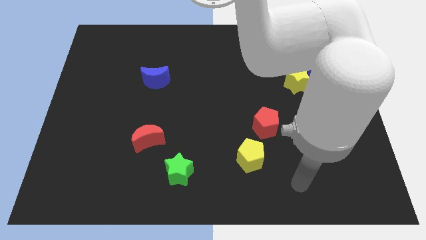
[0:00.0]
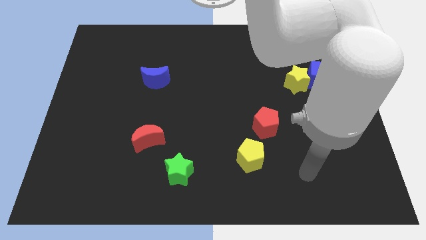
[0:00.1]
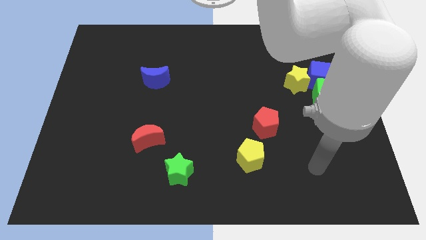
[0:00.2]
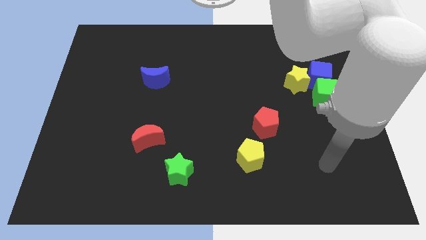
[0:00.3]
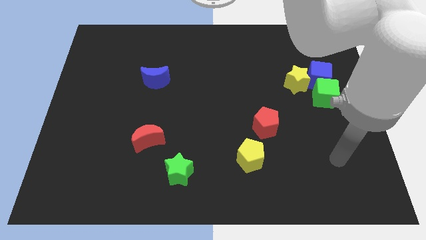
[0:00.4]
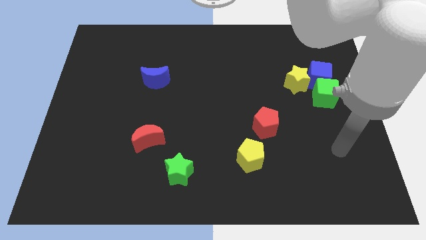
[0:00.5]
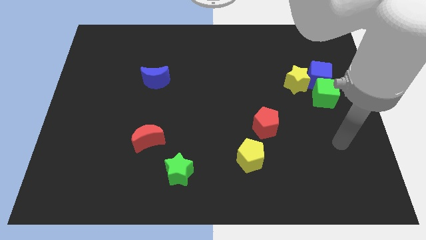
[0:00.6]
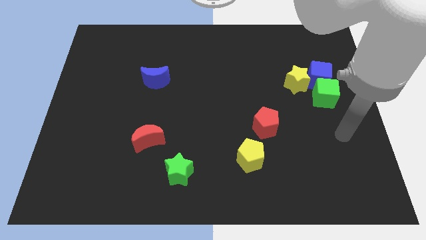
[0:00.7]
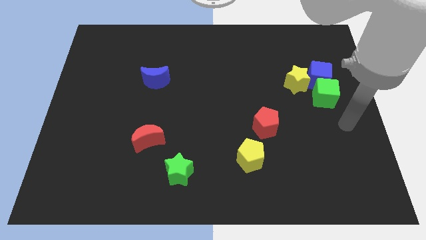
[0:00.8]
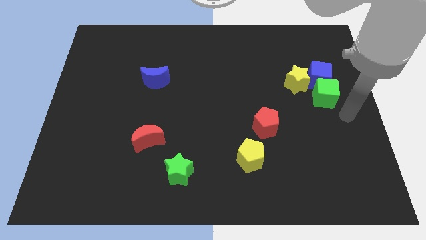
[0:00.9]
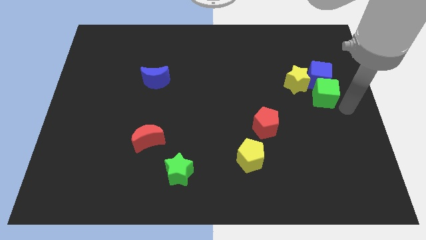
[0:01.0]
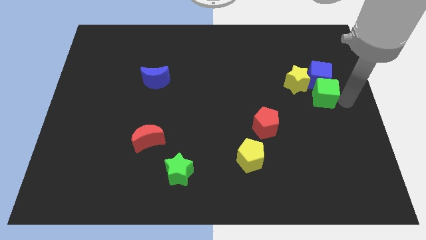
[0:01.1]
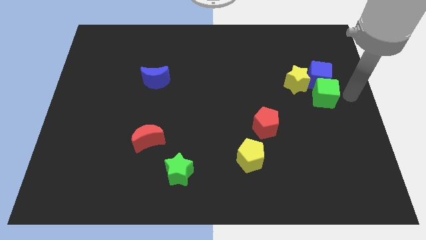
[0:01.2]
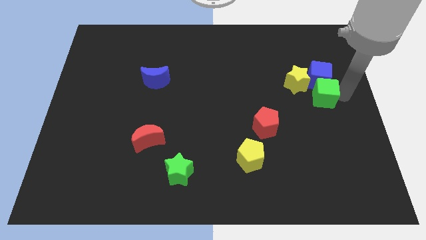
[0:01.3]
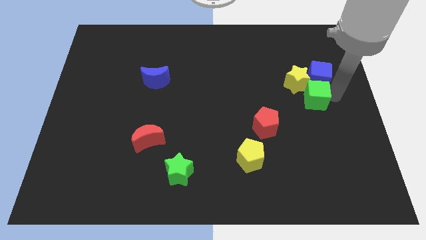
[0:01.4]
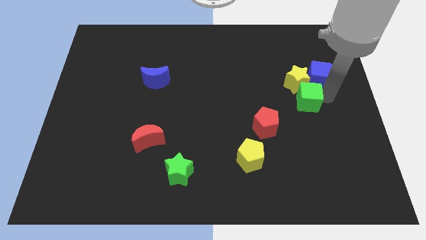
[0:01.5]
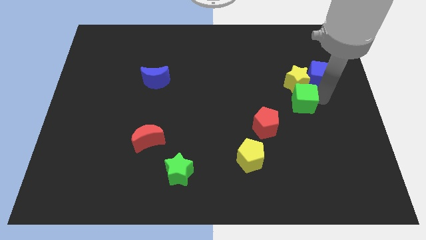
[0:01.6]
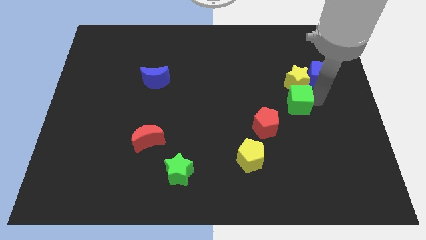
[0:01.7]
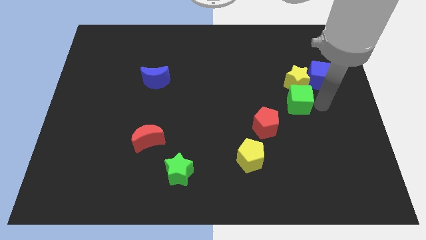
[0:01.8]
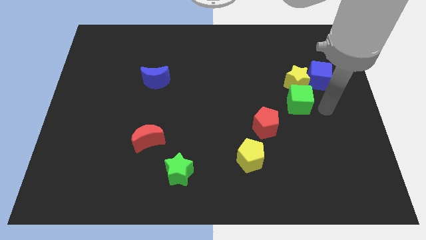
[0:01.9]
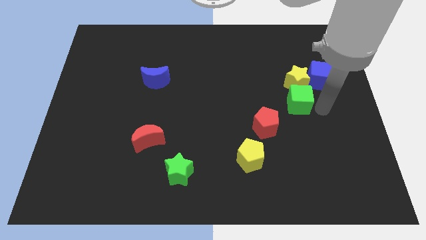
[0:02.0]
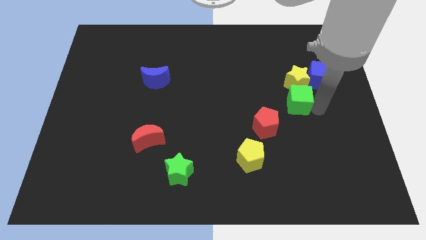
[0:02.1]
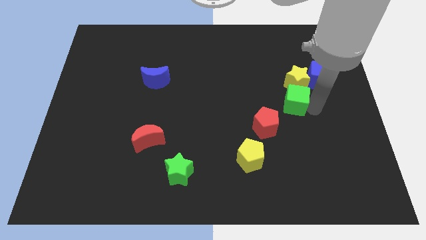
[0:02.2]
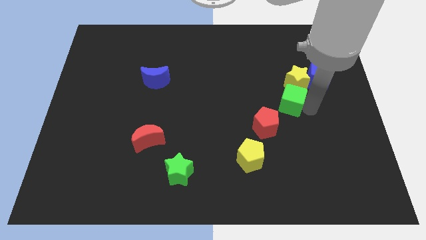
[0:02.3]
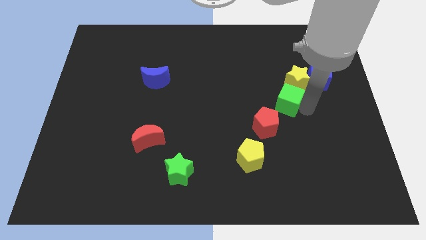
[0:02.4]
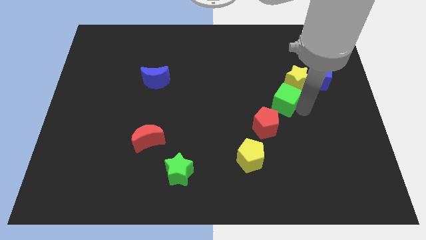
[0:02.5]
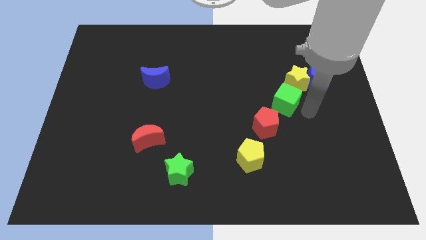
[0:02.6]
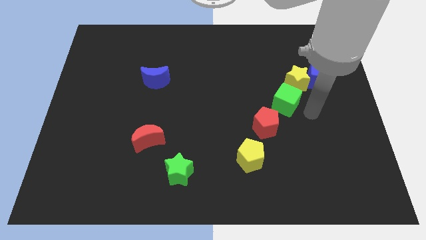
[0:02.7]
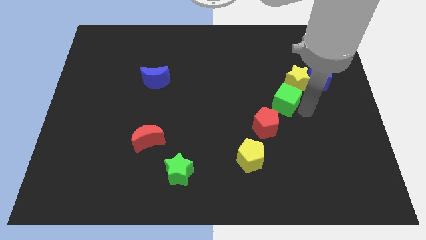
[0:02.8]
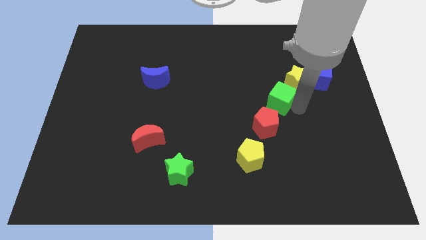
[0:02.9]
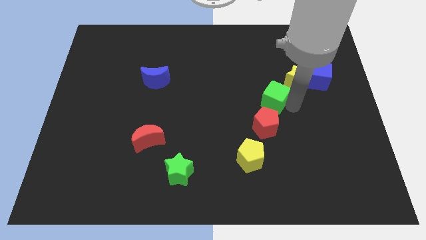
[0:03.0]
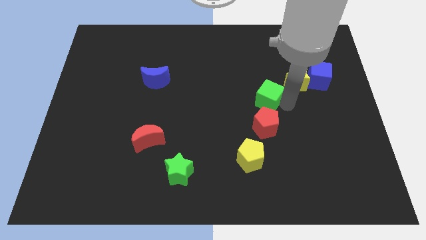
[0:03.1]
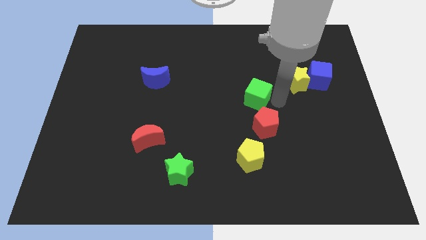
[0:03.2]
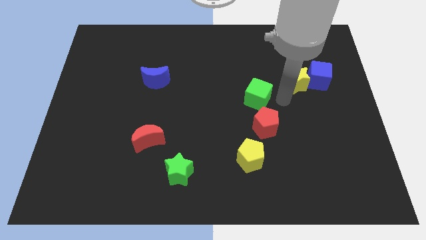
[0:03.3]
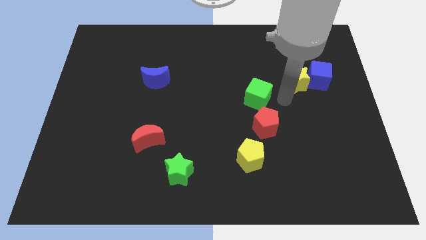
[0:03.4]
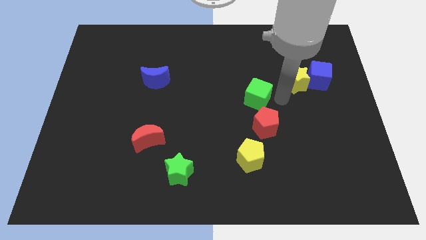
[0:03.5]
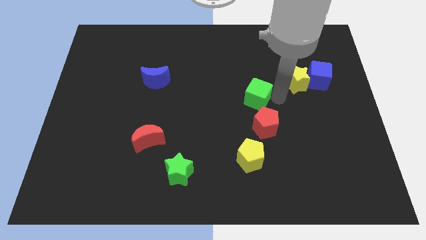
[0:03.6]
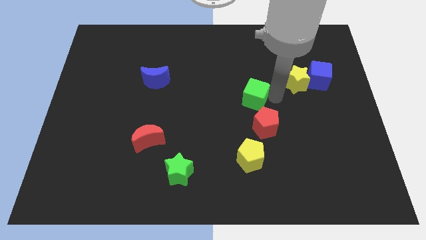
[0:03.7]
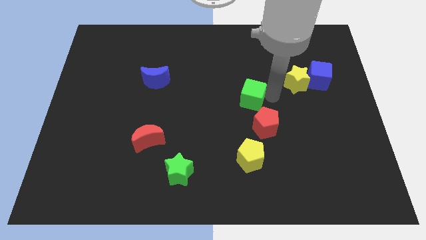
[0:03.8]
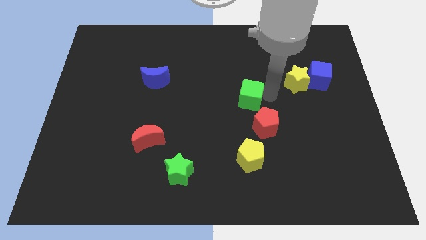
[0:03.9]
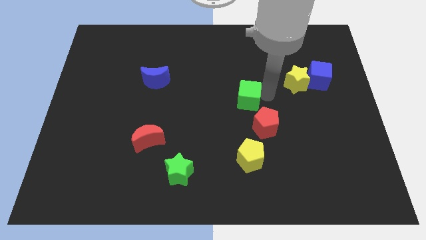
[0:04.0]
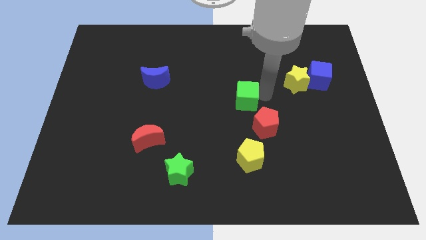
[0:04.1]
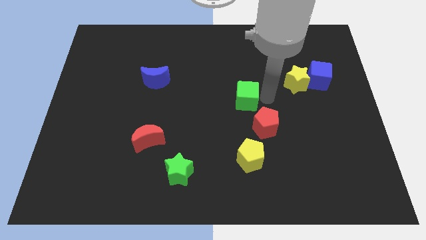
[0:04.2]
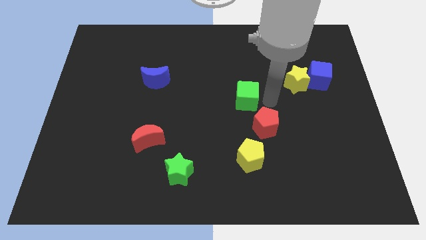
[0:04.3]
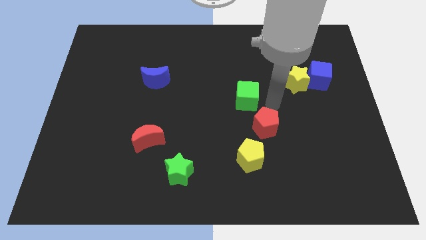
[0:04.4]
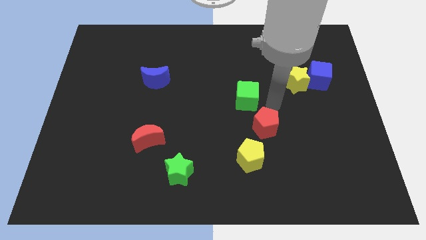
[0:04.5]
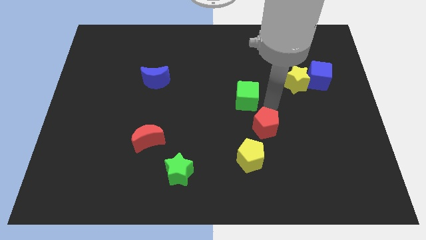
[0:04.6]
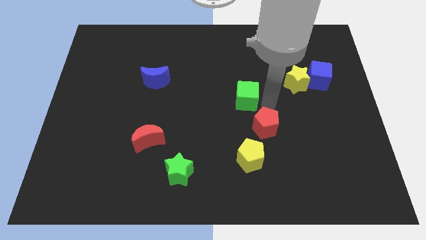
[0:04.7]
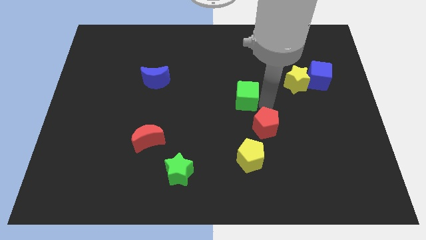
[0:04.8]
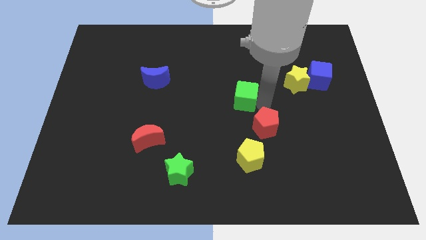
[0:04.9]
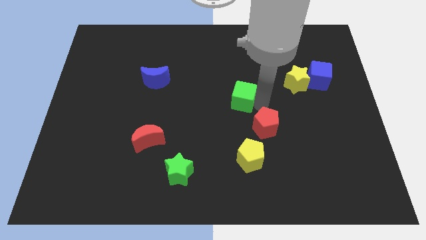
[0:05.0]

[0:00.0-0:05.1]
push the green cube left

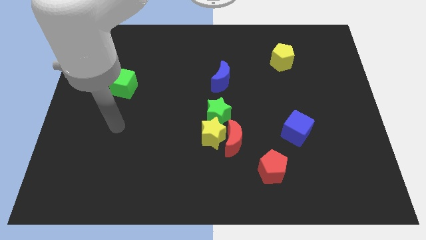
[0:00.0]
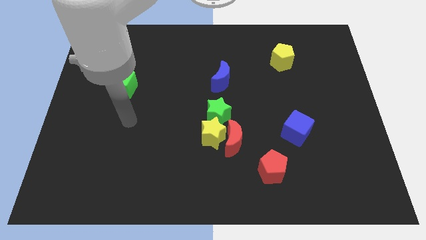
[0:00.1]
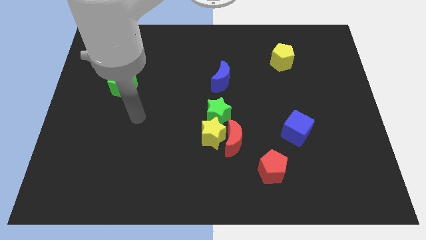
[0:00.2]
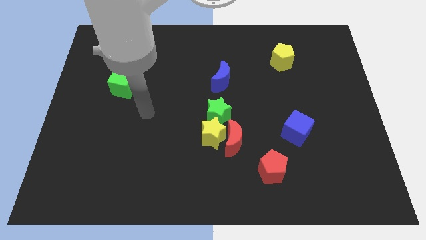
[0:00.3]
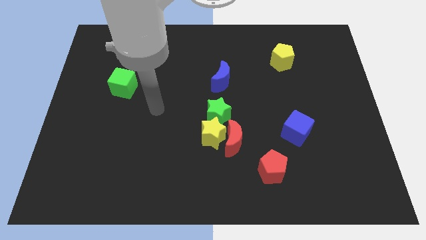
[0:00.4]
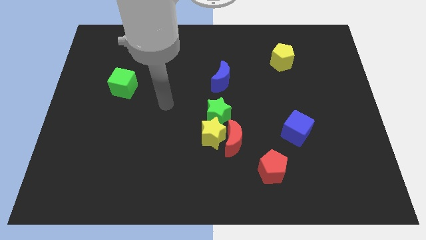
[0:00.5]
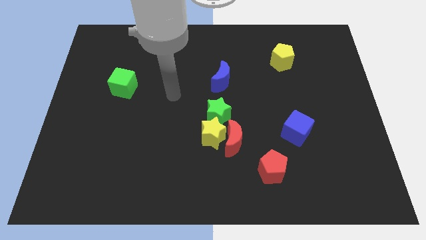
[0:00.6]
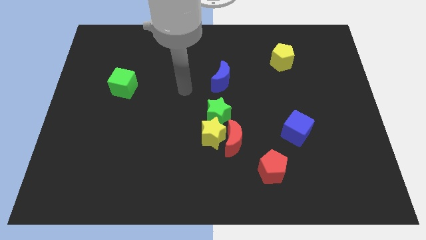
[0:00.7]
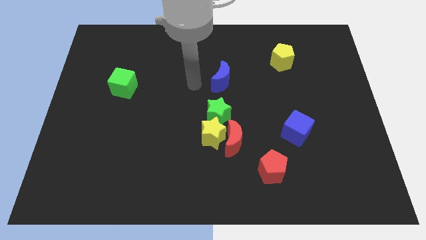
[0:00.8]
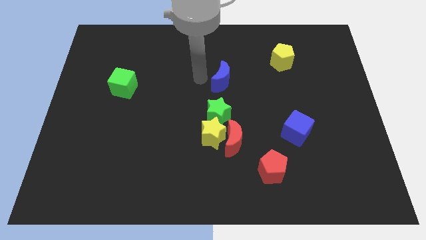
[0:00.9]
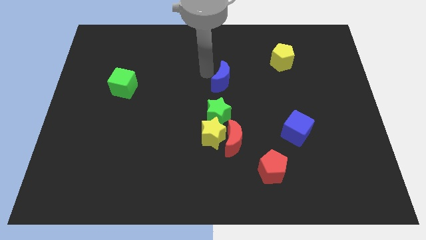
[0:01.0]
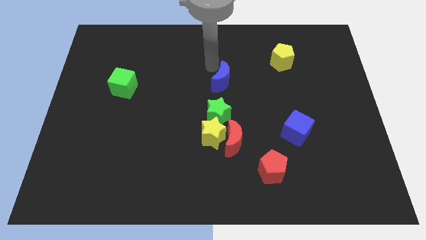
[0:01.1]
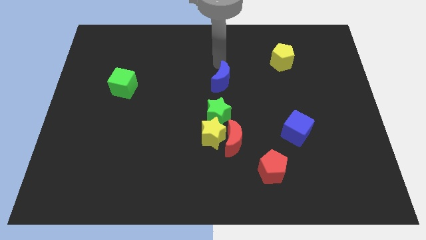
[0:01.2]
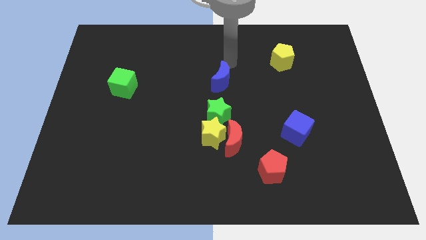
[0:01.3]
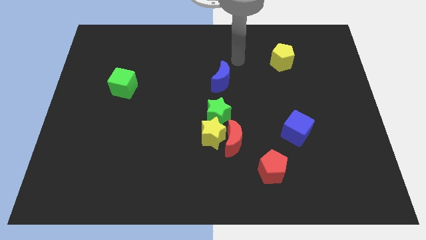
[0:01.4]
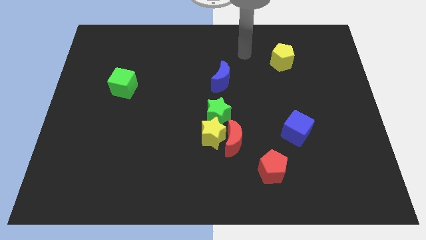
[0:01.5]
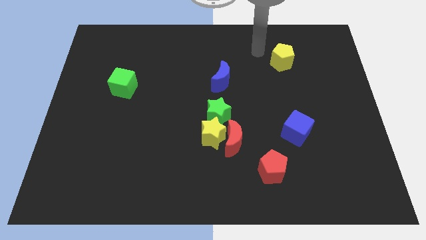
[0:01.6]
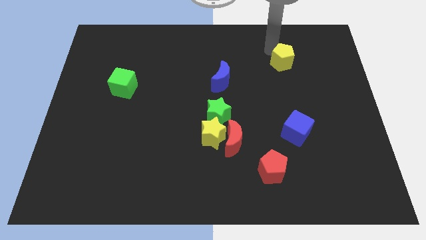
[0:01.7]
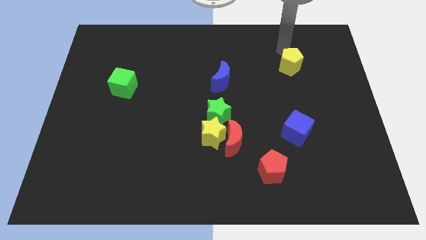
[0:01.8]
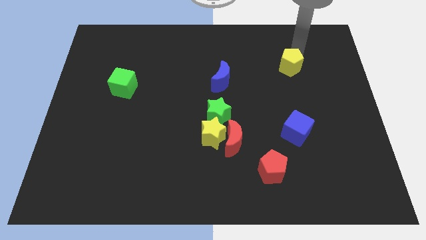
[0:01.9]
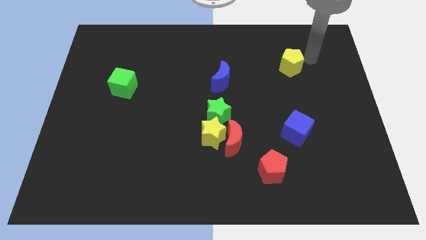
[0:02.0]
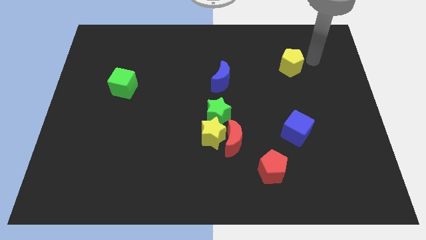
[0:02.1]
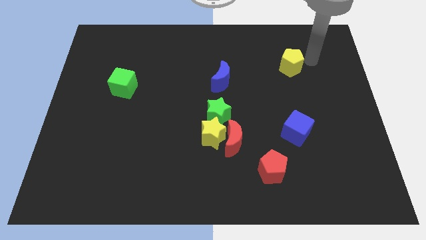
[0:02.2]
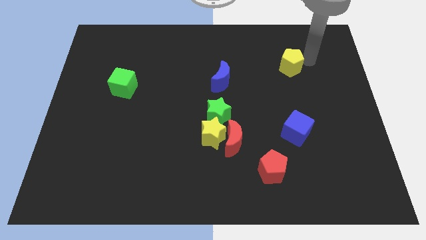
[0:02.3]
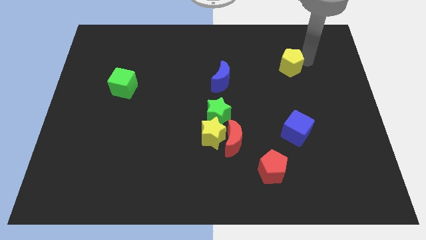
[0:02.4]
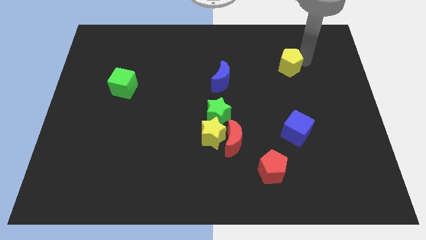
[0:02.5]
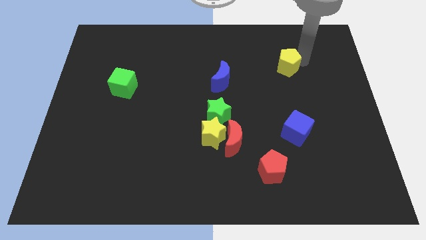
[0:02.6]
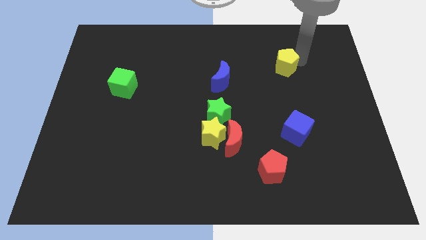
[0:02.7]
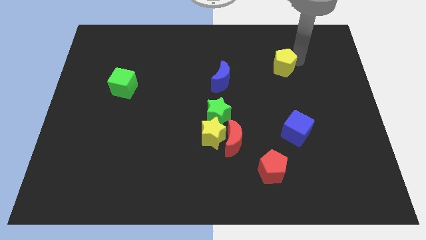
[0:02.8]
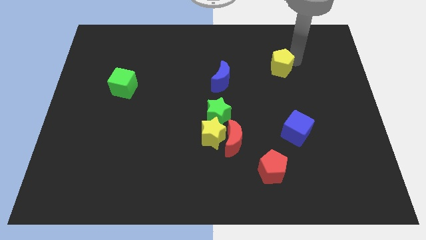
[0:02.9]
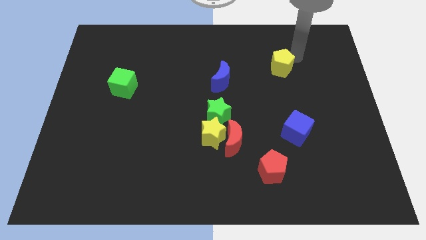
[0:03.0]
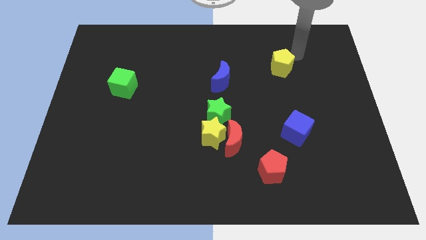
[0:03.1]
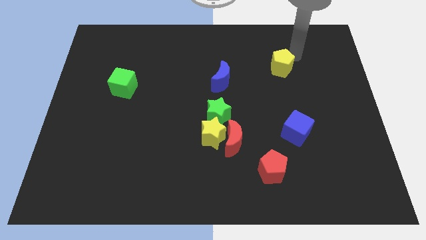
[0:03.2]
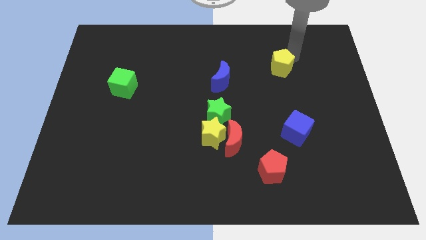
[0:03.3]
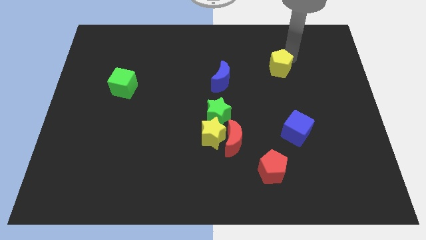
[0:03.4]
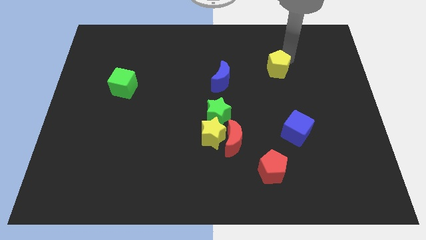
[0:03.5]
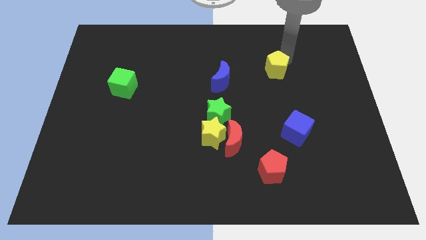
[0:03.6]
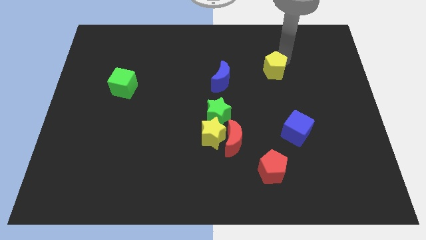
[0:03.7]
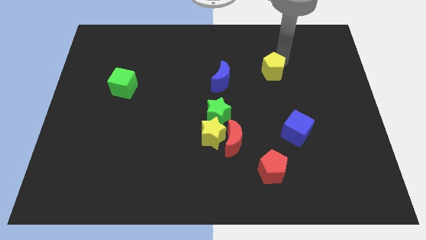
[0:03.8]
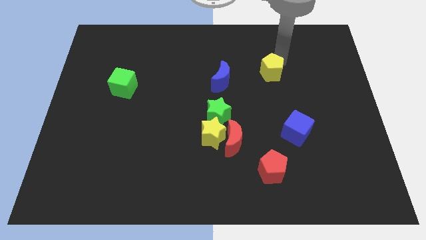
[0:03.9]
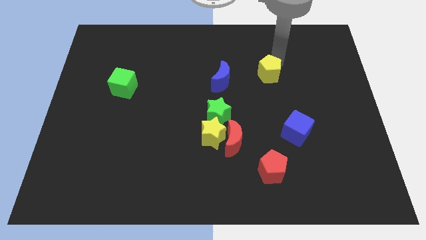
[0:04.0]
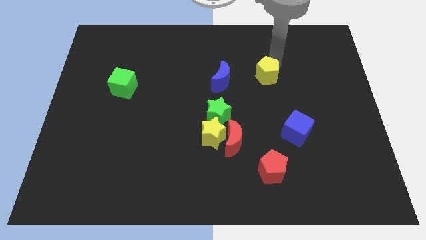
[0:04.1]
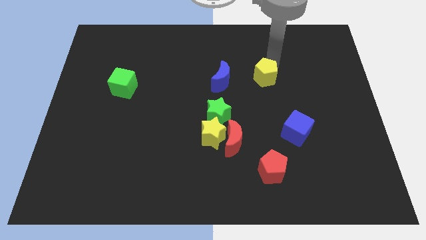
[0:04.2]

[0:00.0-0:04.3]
slide the yellow pentagon diagonally downwards and to the left somewhat
